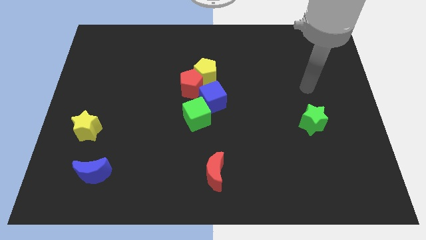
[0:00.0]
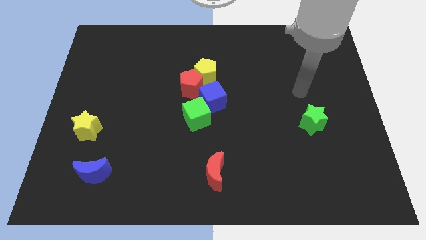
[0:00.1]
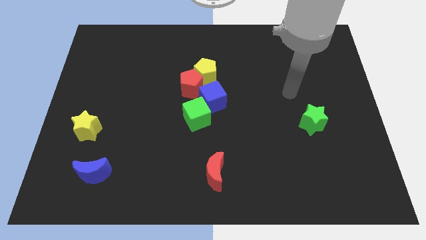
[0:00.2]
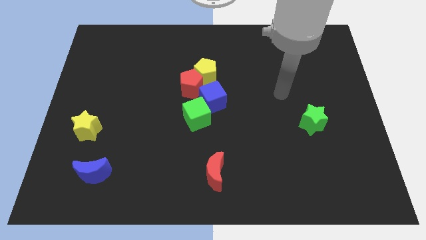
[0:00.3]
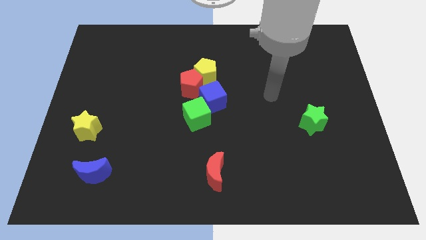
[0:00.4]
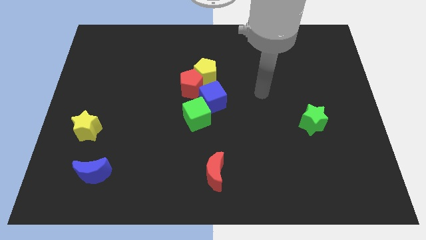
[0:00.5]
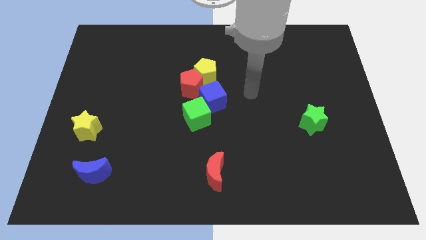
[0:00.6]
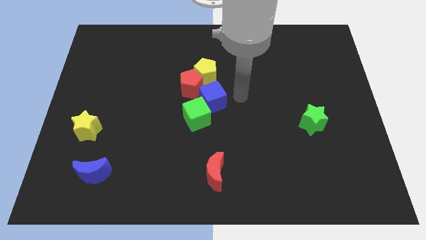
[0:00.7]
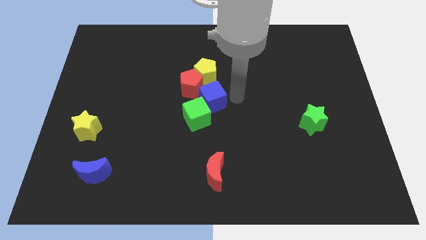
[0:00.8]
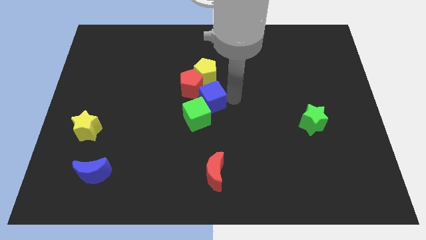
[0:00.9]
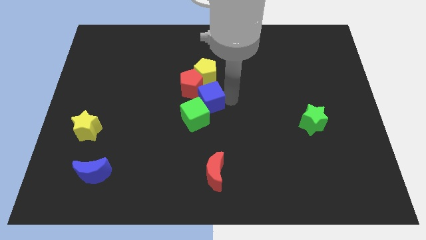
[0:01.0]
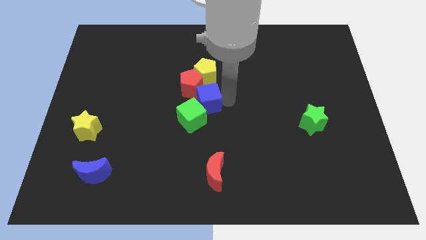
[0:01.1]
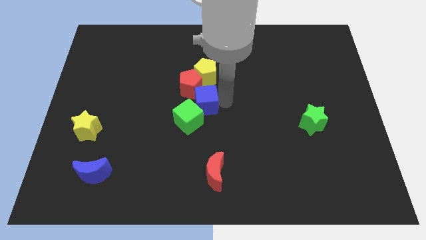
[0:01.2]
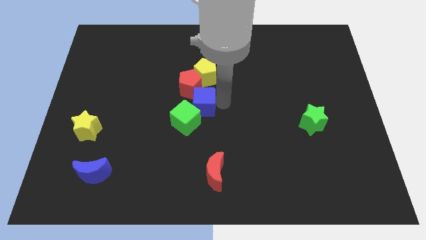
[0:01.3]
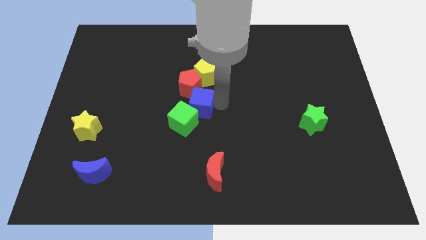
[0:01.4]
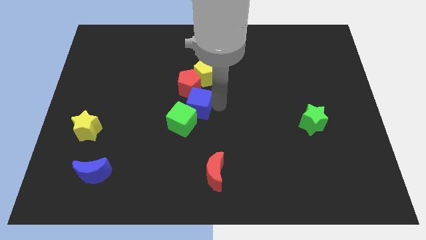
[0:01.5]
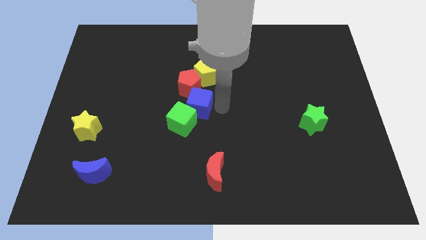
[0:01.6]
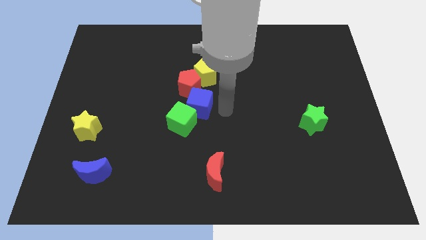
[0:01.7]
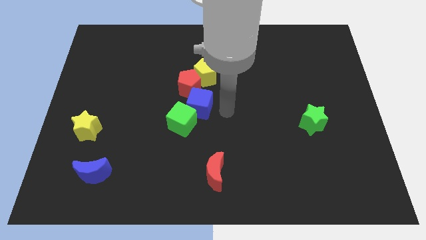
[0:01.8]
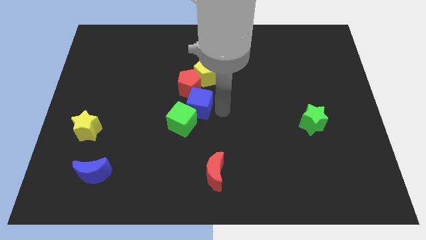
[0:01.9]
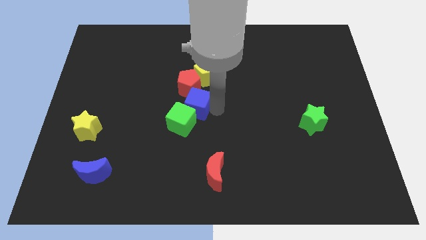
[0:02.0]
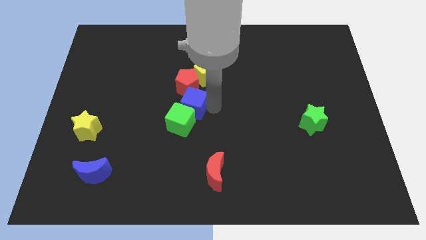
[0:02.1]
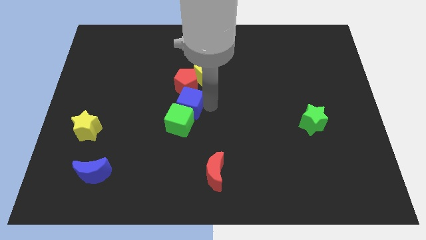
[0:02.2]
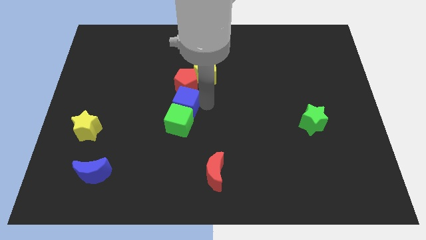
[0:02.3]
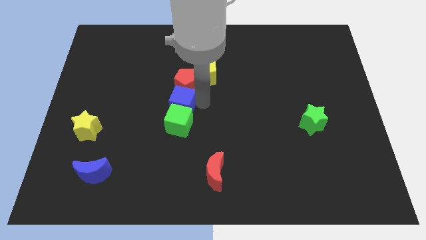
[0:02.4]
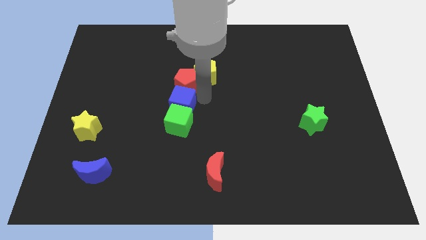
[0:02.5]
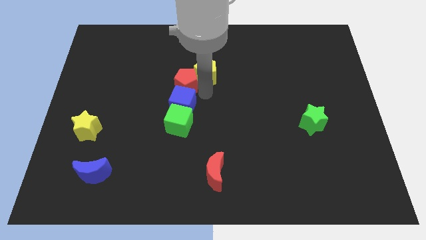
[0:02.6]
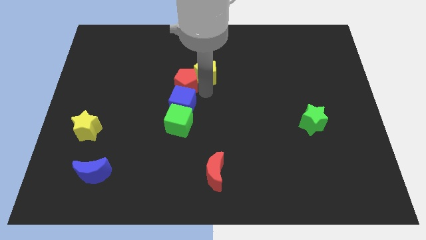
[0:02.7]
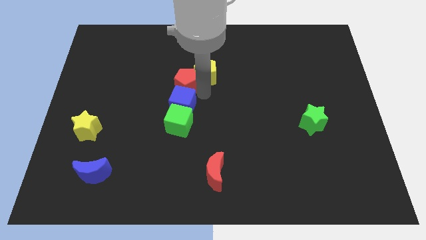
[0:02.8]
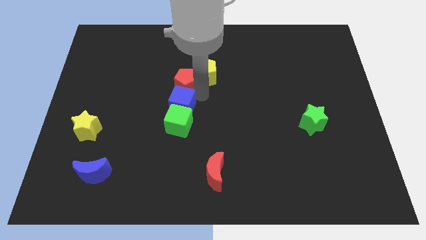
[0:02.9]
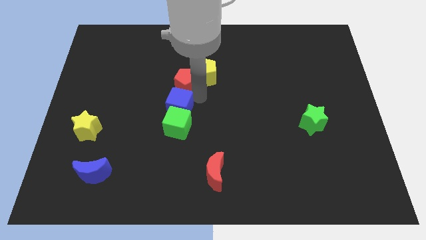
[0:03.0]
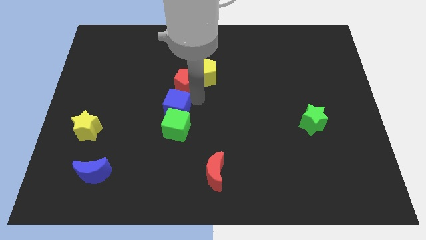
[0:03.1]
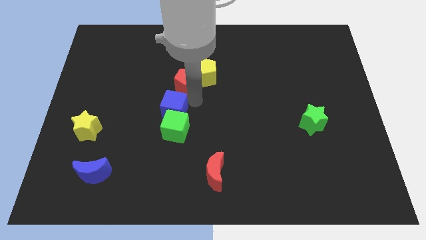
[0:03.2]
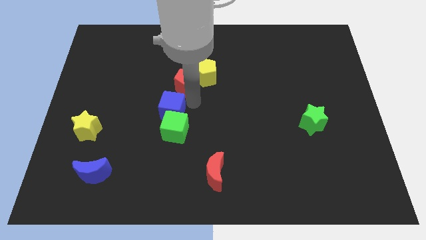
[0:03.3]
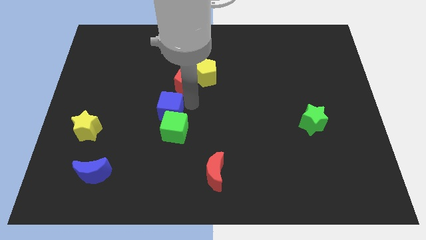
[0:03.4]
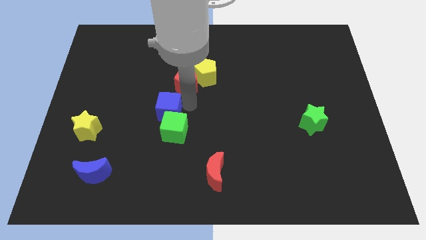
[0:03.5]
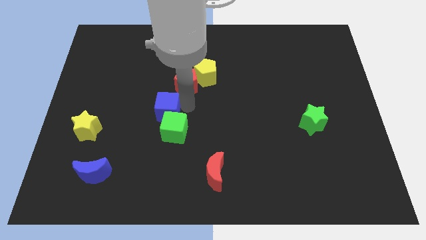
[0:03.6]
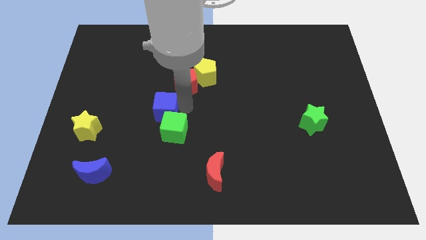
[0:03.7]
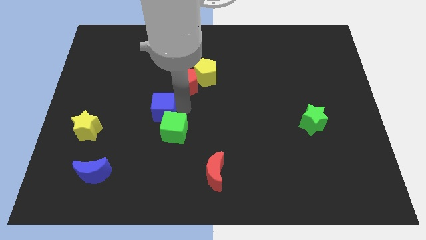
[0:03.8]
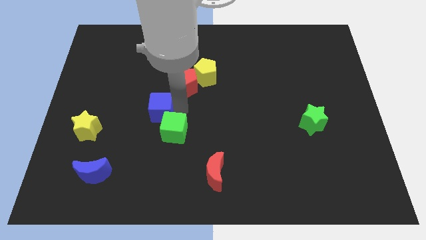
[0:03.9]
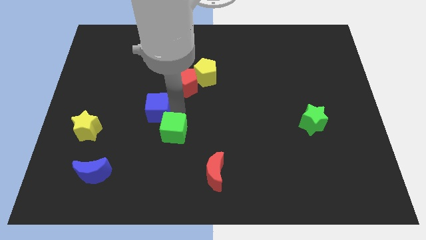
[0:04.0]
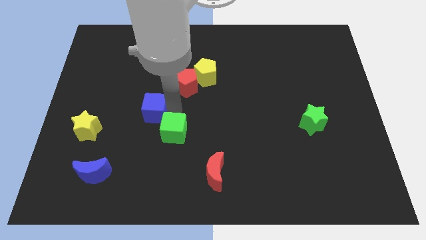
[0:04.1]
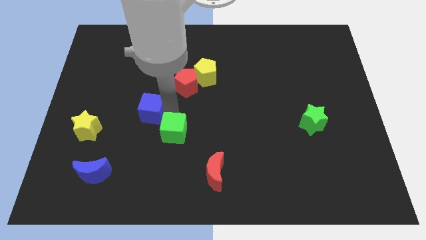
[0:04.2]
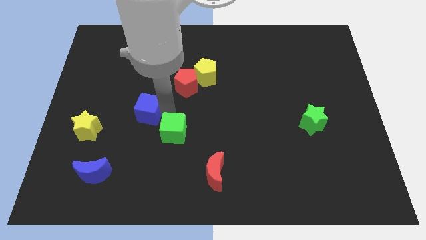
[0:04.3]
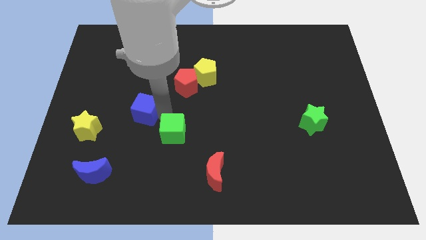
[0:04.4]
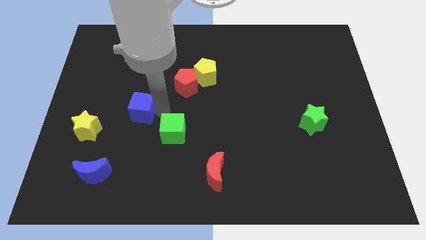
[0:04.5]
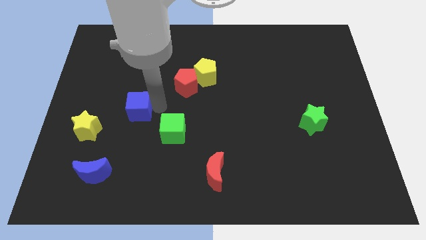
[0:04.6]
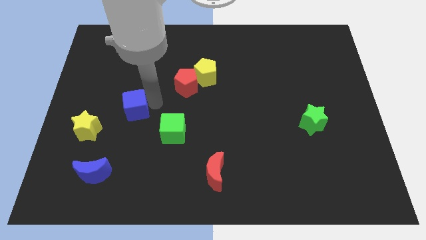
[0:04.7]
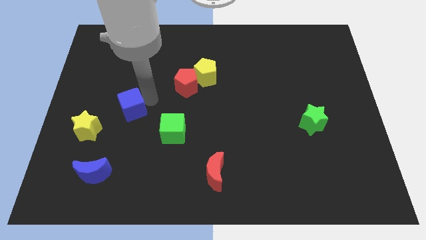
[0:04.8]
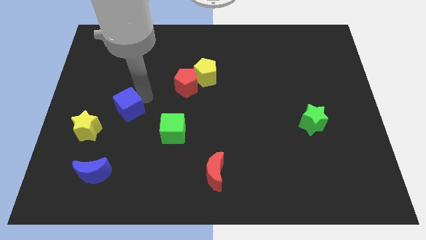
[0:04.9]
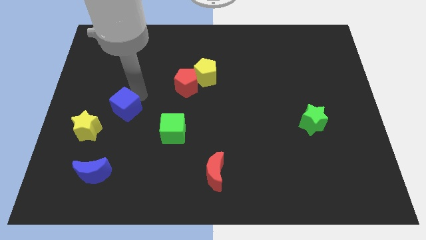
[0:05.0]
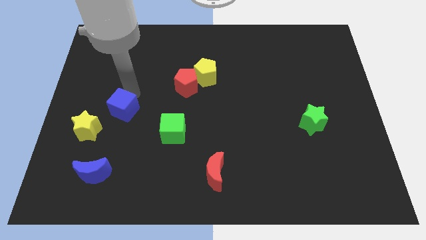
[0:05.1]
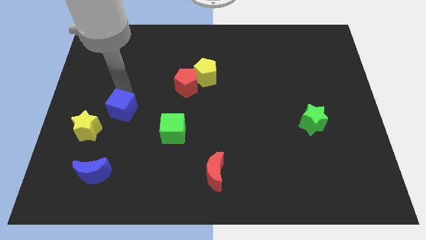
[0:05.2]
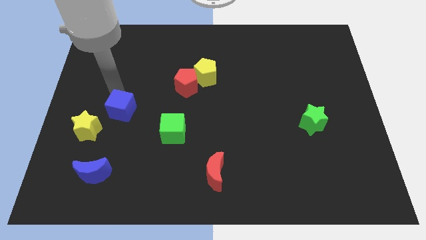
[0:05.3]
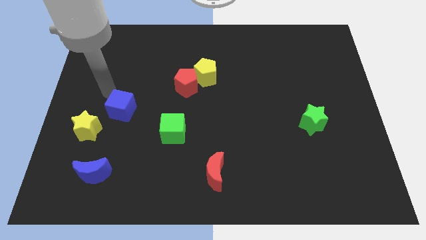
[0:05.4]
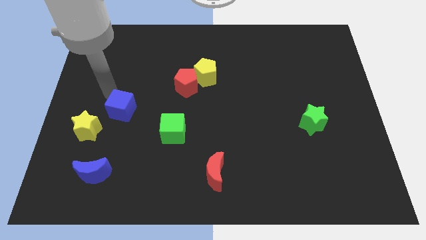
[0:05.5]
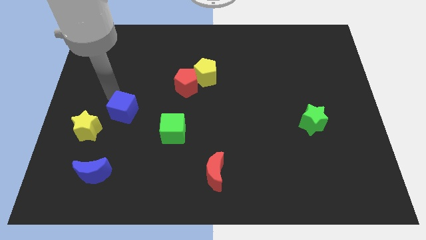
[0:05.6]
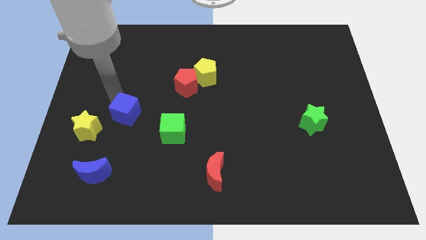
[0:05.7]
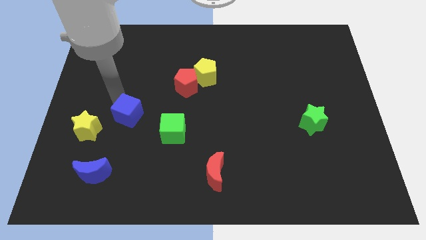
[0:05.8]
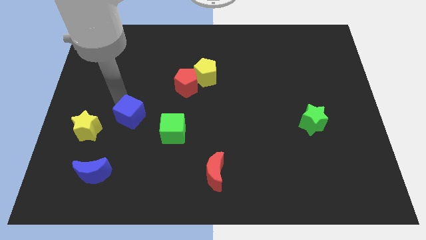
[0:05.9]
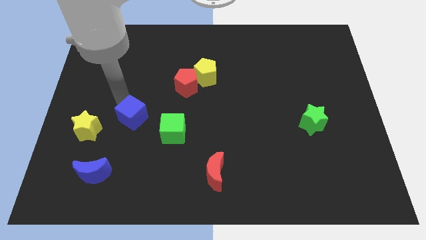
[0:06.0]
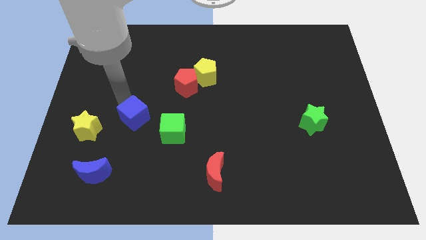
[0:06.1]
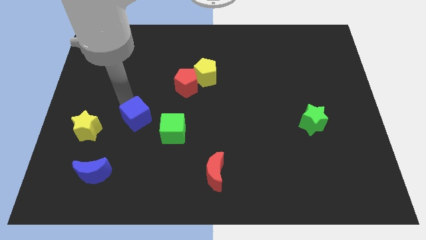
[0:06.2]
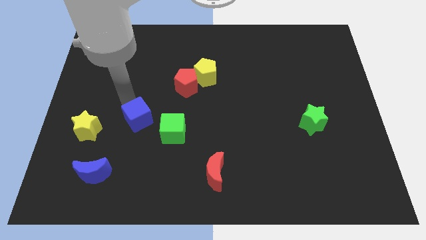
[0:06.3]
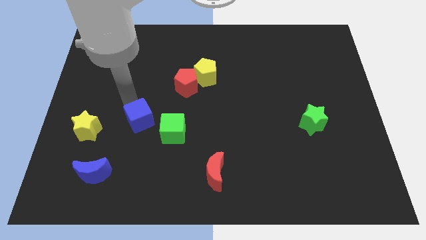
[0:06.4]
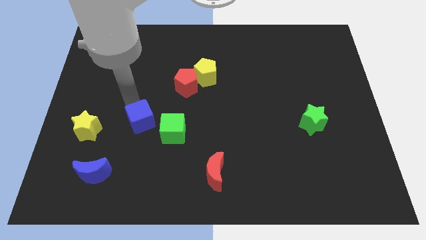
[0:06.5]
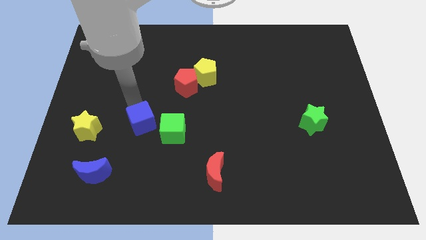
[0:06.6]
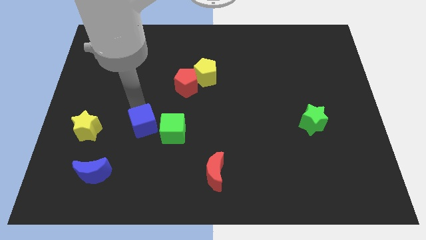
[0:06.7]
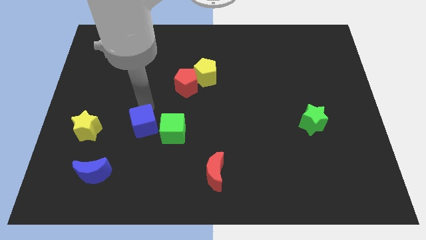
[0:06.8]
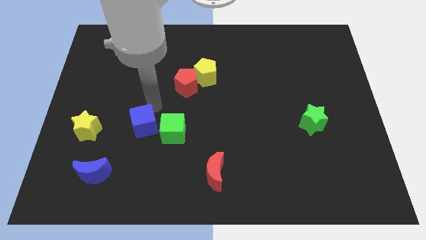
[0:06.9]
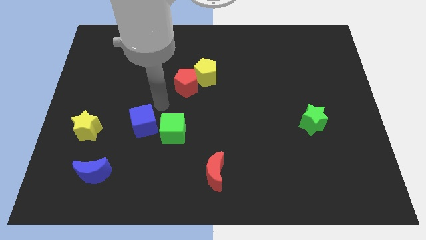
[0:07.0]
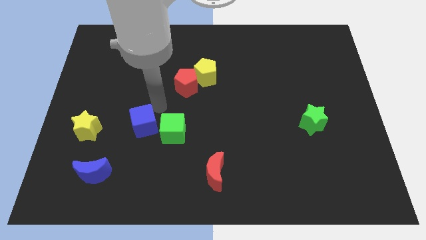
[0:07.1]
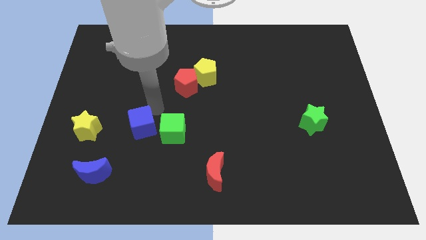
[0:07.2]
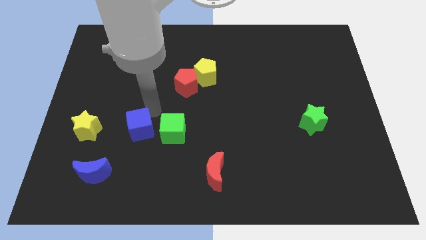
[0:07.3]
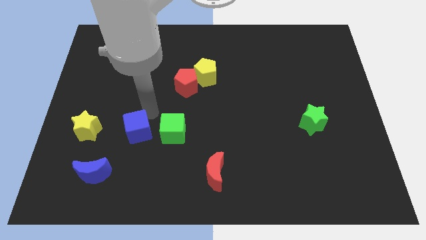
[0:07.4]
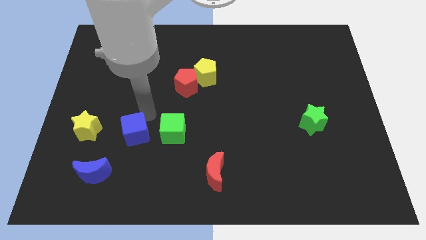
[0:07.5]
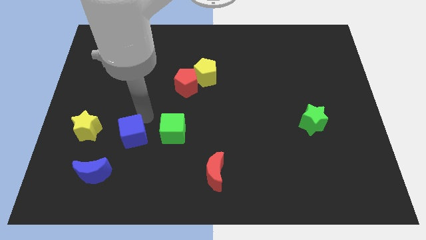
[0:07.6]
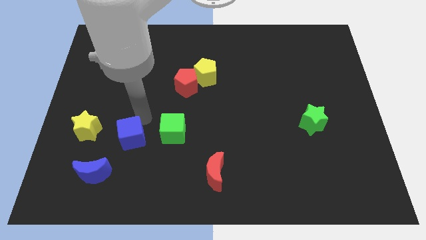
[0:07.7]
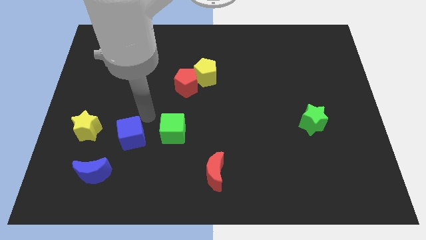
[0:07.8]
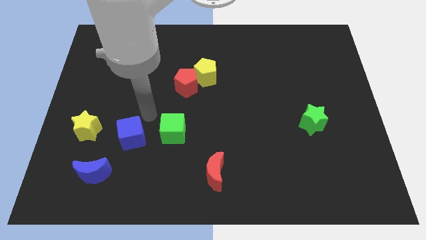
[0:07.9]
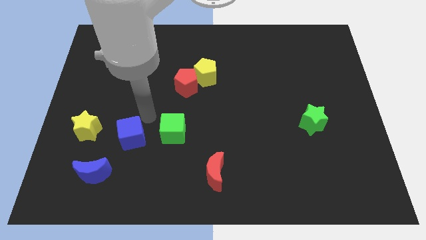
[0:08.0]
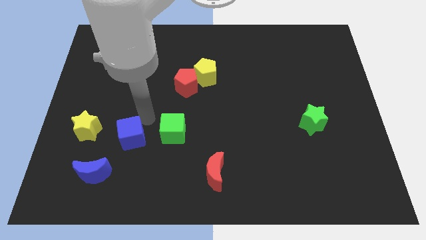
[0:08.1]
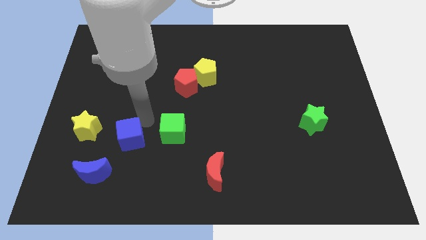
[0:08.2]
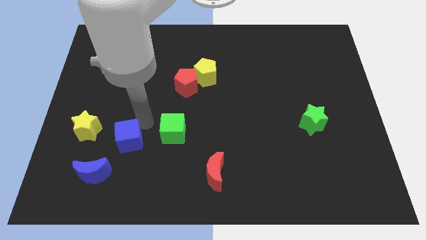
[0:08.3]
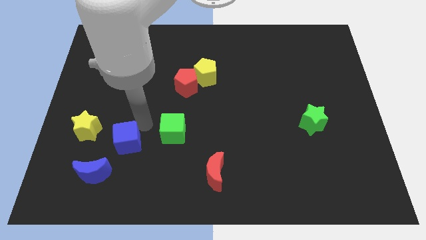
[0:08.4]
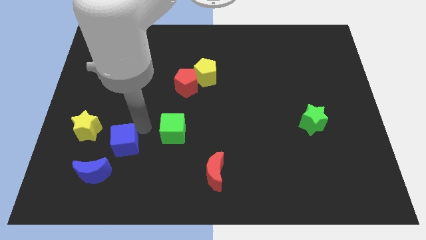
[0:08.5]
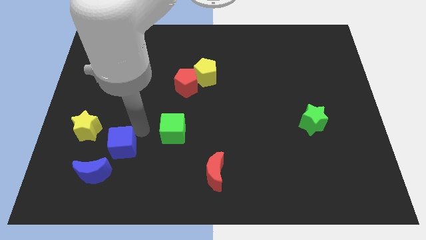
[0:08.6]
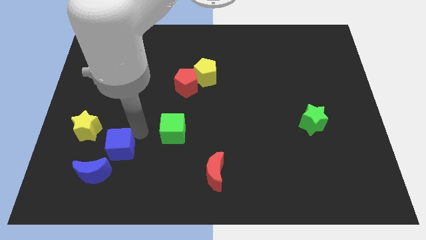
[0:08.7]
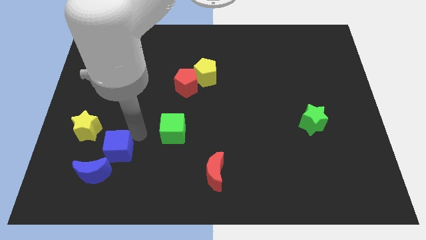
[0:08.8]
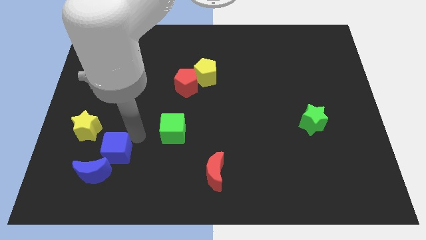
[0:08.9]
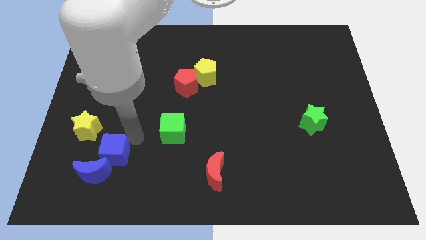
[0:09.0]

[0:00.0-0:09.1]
move the blue cube towards the blue moon
